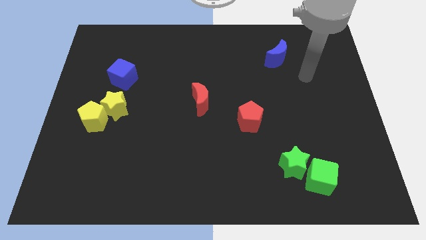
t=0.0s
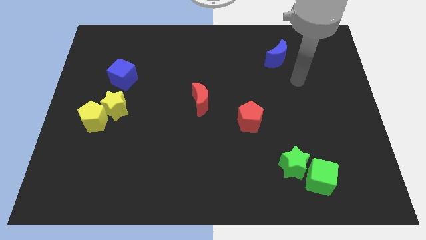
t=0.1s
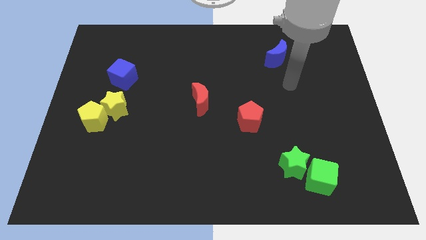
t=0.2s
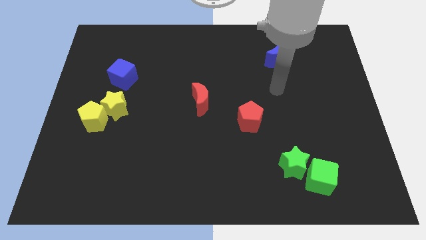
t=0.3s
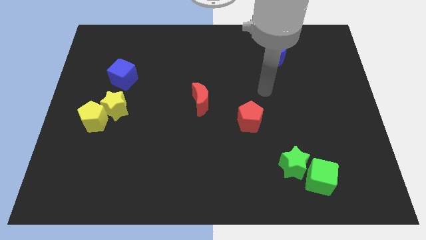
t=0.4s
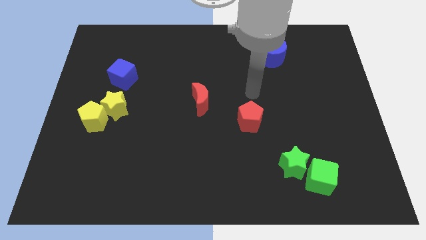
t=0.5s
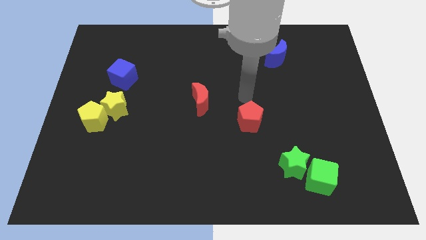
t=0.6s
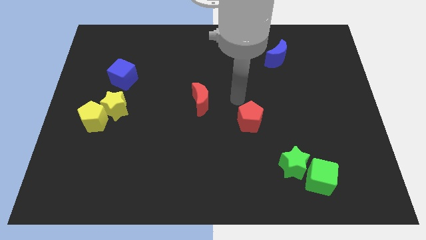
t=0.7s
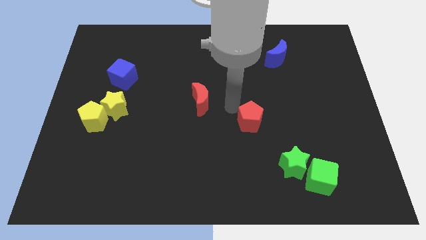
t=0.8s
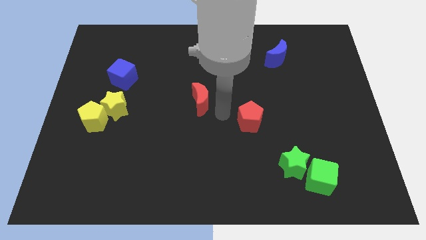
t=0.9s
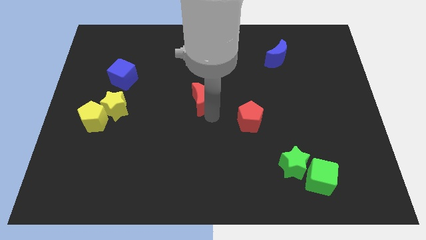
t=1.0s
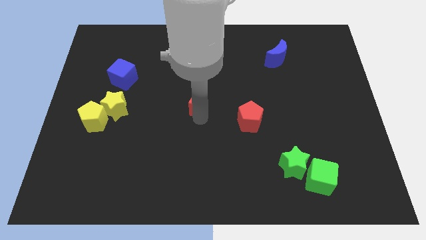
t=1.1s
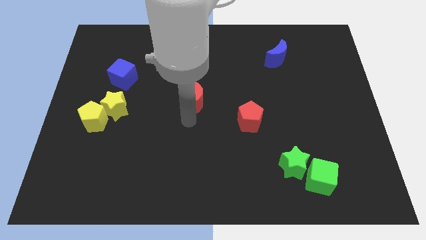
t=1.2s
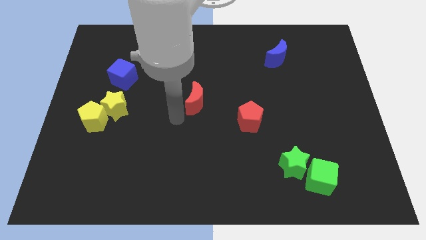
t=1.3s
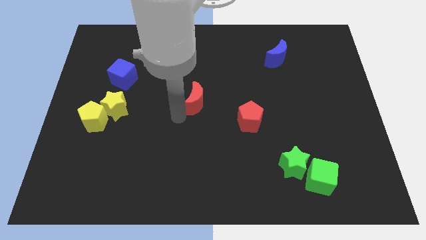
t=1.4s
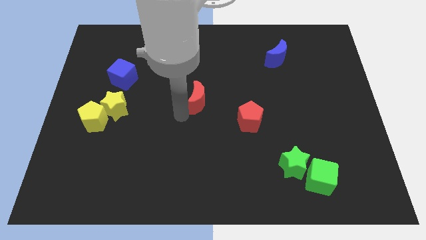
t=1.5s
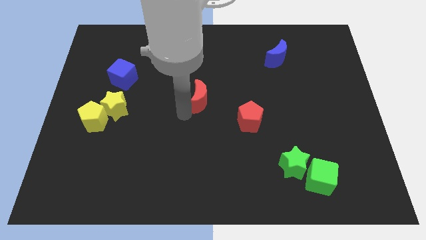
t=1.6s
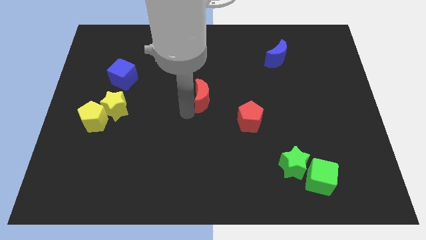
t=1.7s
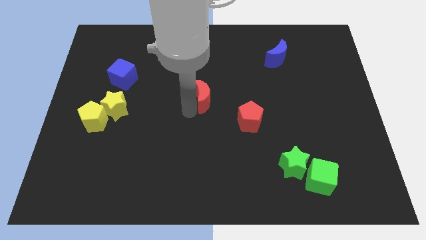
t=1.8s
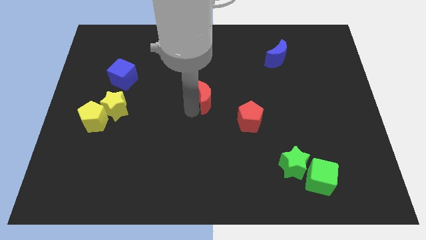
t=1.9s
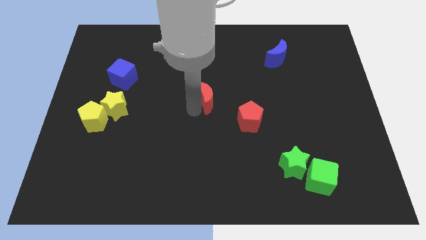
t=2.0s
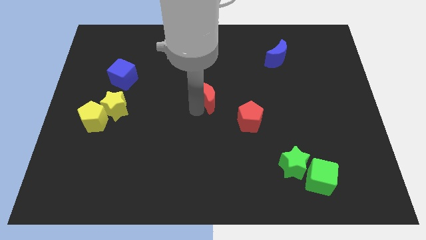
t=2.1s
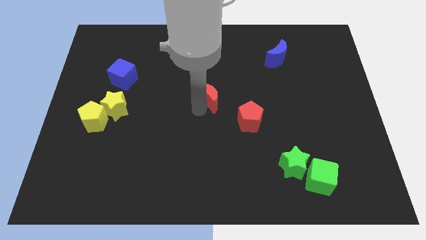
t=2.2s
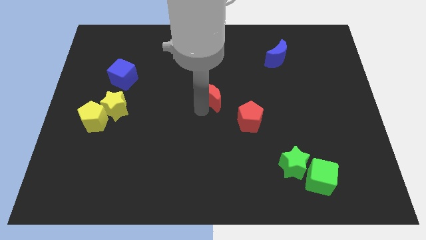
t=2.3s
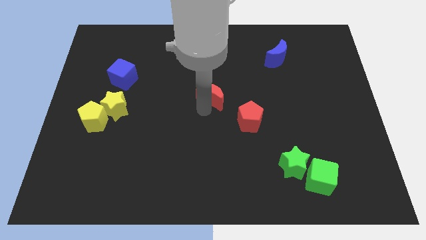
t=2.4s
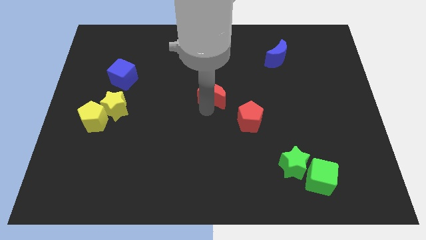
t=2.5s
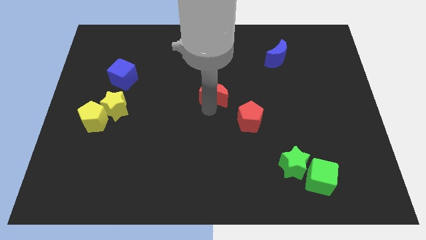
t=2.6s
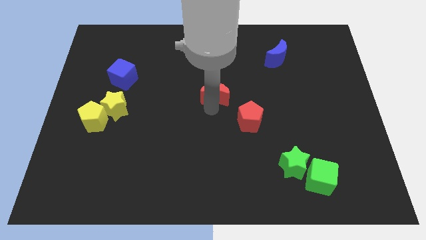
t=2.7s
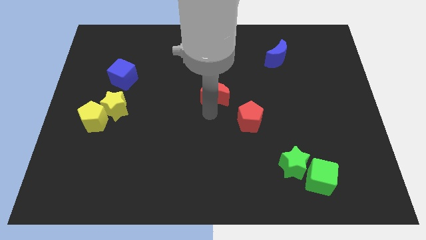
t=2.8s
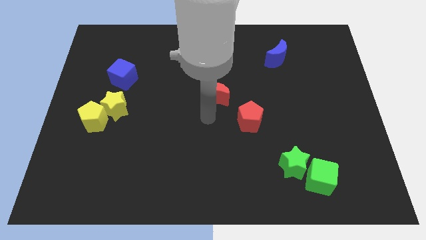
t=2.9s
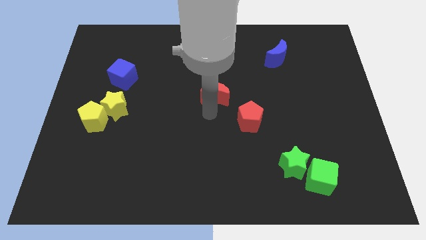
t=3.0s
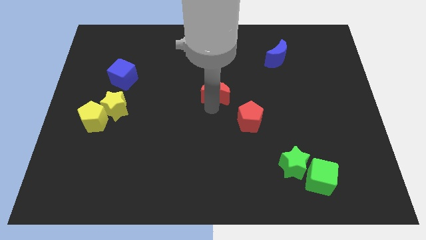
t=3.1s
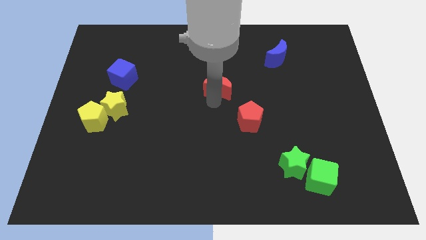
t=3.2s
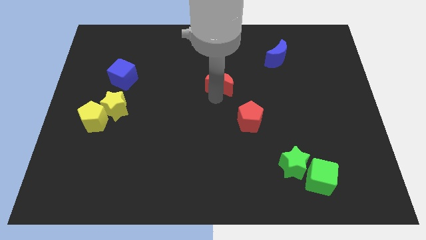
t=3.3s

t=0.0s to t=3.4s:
slightly move the red moon upwards and then right

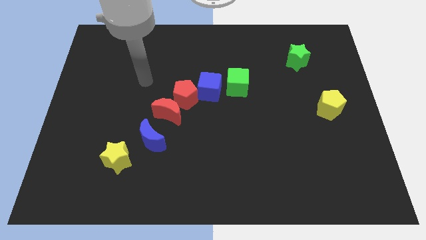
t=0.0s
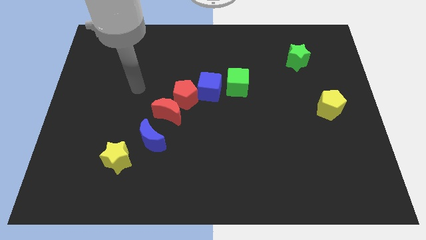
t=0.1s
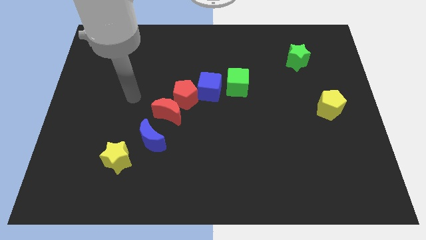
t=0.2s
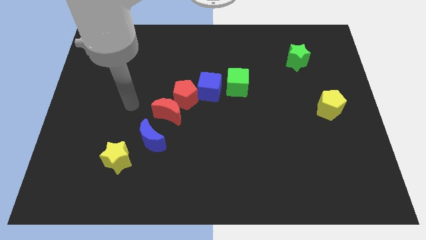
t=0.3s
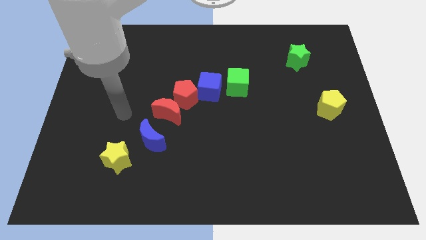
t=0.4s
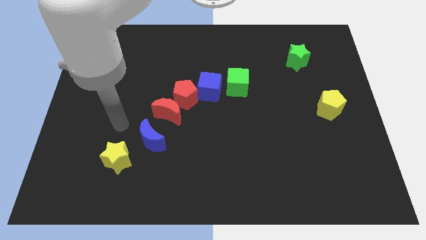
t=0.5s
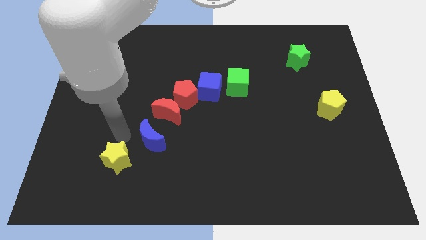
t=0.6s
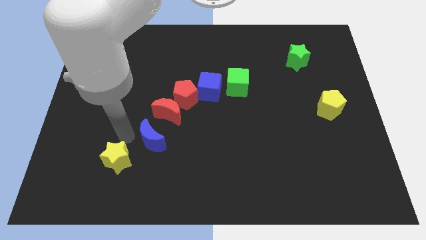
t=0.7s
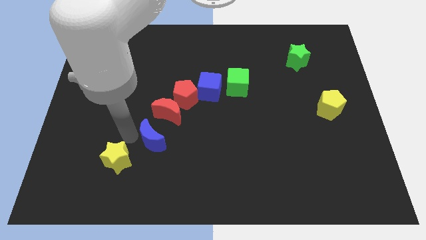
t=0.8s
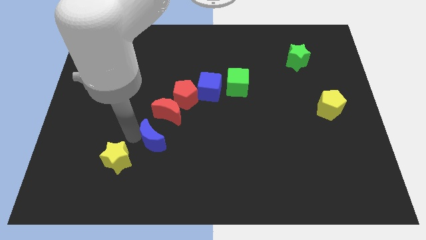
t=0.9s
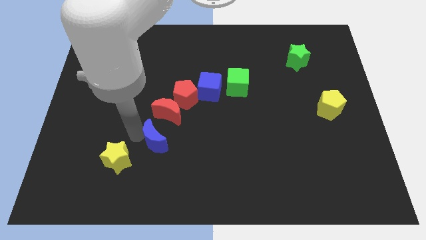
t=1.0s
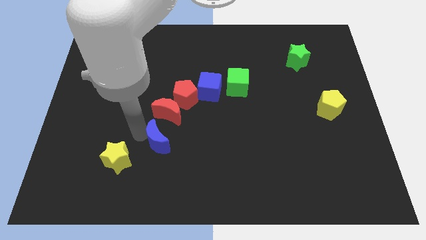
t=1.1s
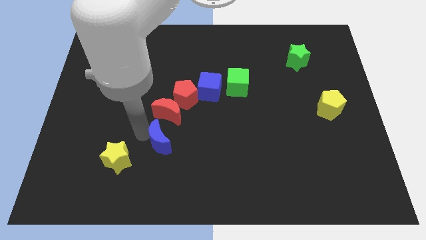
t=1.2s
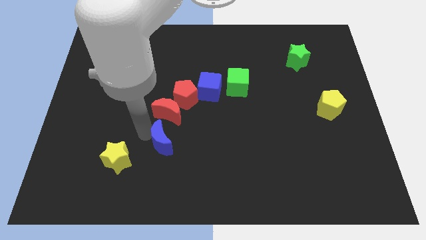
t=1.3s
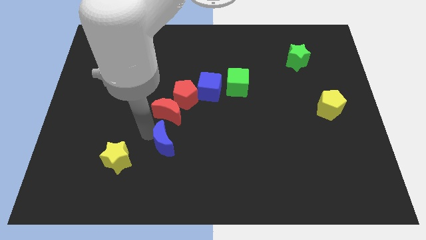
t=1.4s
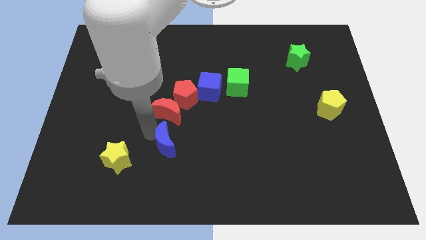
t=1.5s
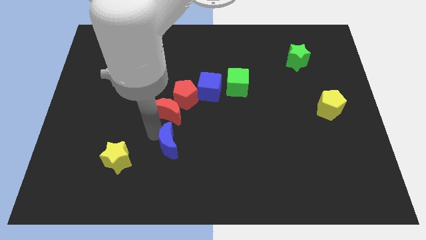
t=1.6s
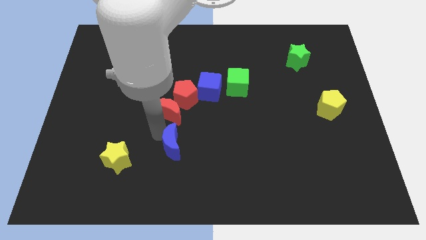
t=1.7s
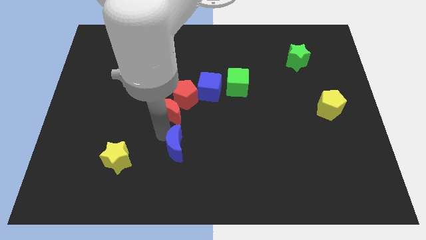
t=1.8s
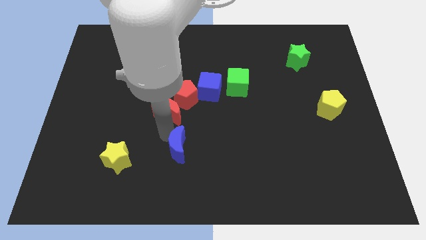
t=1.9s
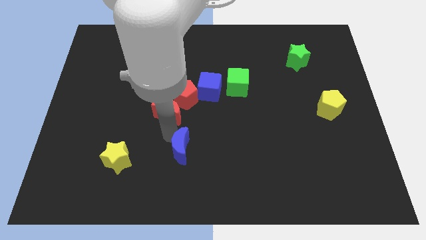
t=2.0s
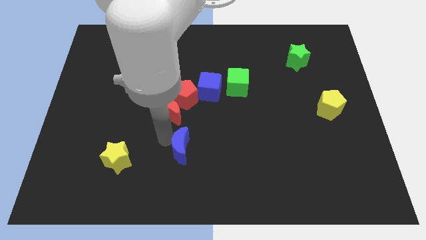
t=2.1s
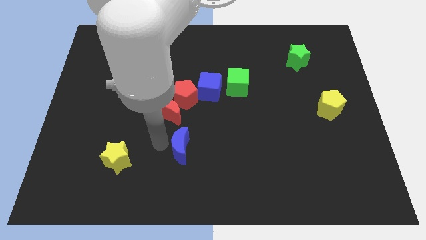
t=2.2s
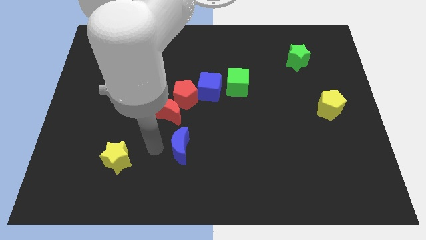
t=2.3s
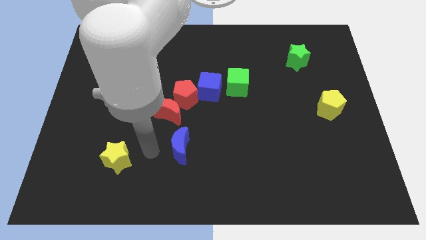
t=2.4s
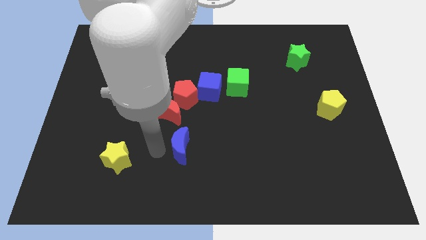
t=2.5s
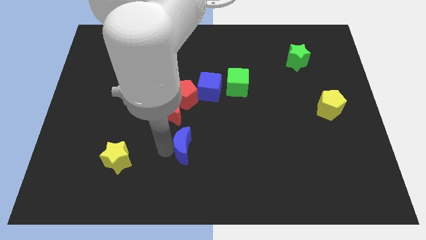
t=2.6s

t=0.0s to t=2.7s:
move the blue moon right a bit

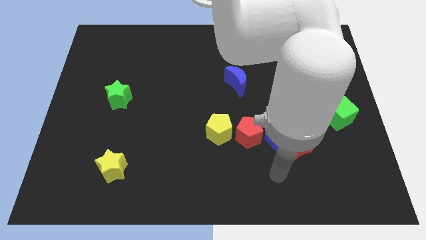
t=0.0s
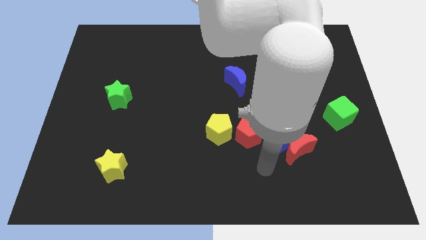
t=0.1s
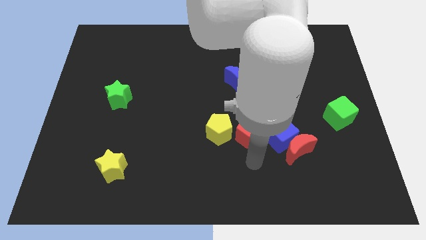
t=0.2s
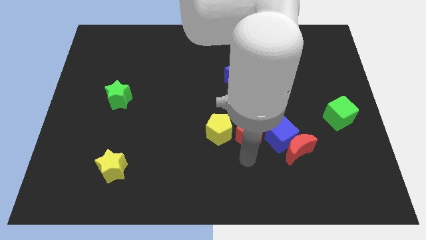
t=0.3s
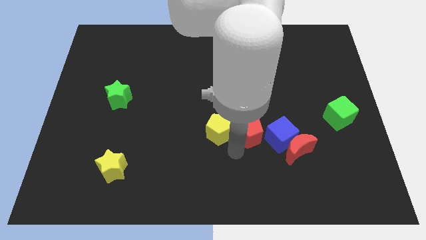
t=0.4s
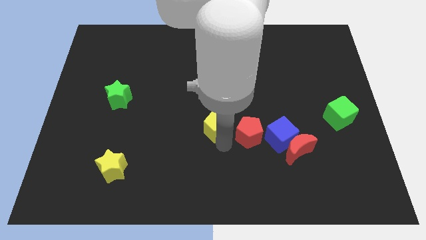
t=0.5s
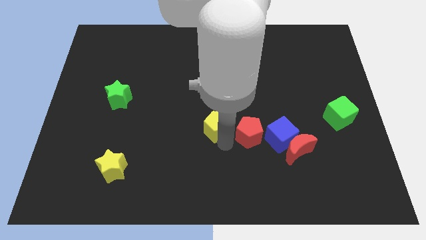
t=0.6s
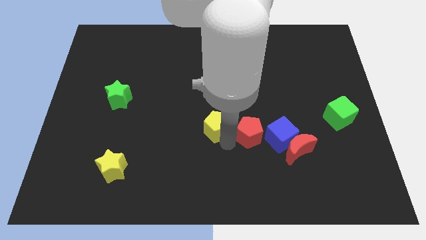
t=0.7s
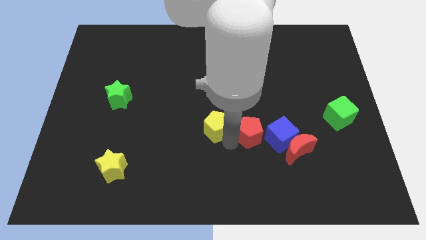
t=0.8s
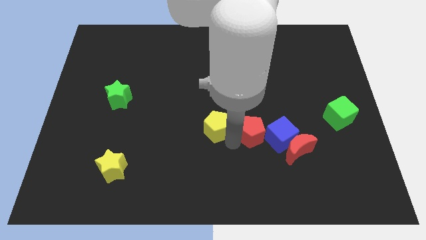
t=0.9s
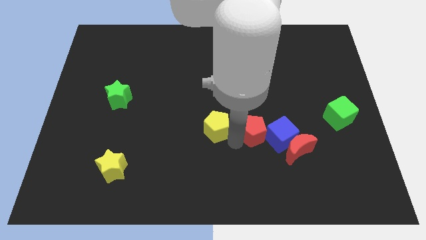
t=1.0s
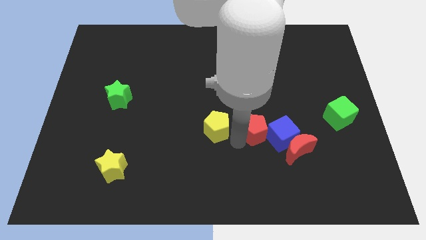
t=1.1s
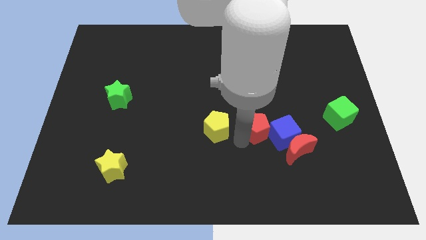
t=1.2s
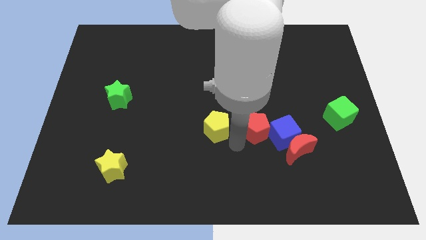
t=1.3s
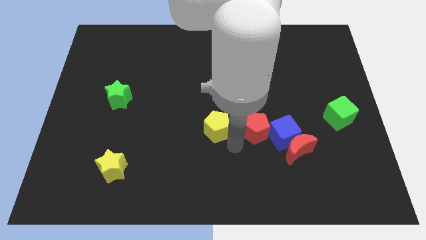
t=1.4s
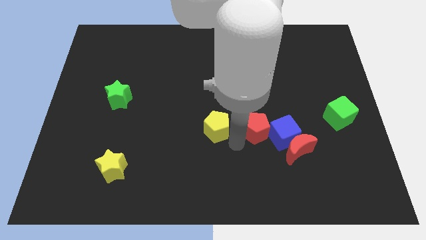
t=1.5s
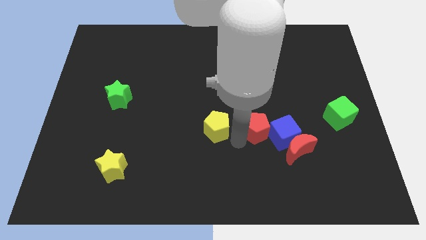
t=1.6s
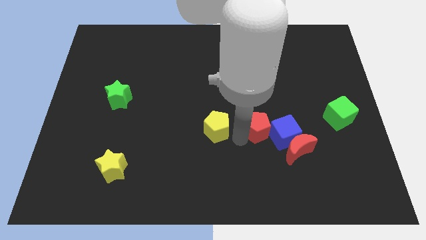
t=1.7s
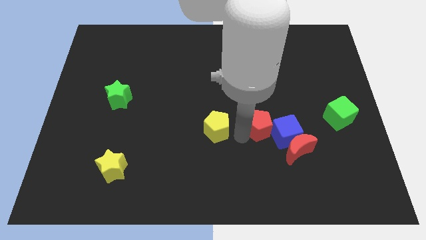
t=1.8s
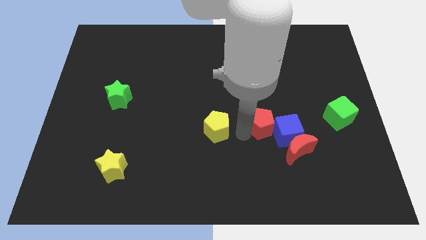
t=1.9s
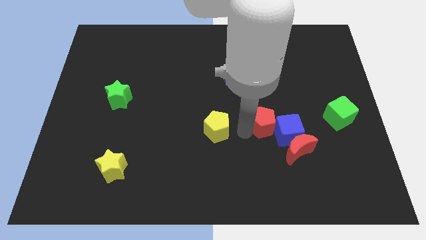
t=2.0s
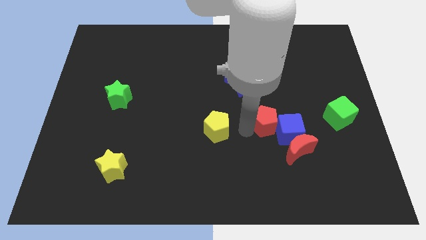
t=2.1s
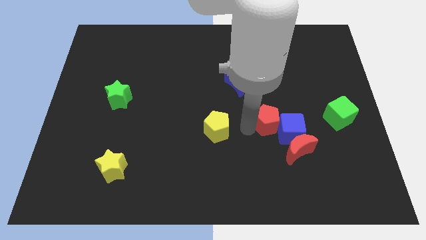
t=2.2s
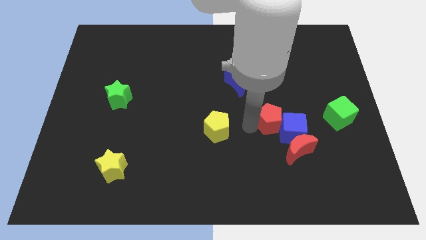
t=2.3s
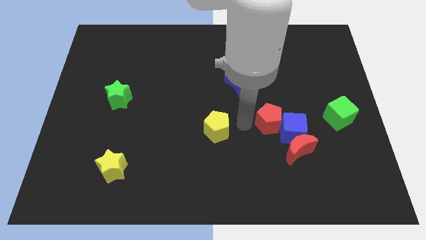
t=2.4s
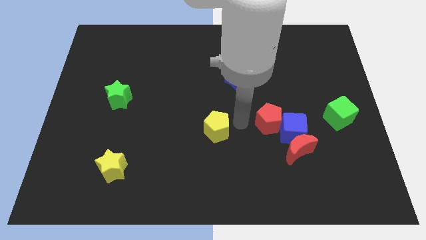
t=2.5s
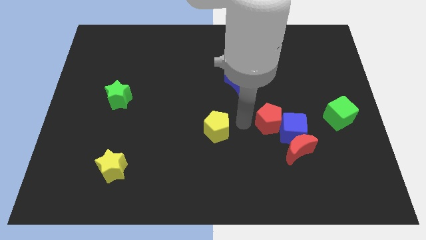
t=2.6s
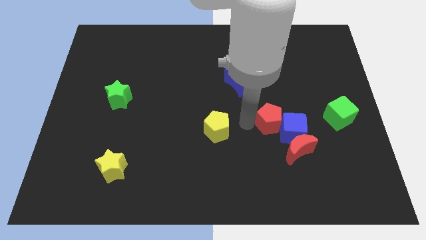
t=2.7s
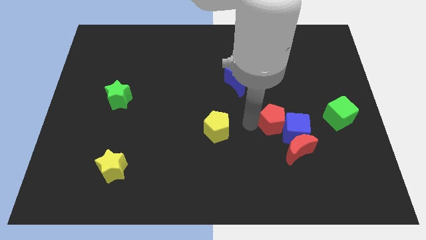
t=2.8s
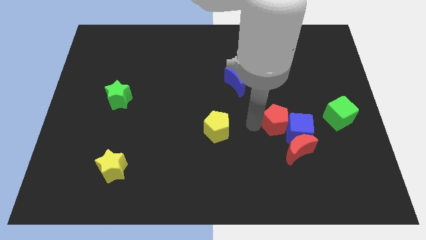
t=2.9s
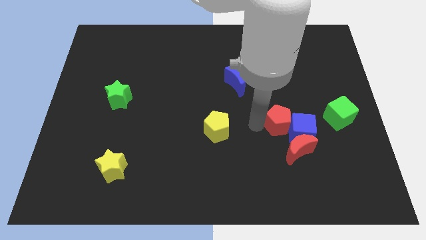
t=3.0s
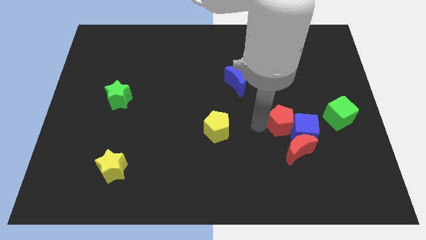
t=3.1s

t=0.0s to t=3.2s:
slide the red pentagon a little right
